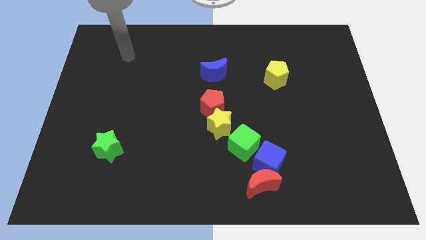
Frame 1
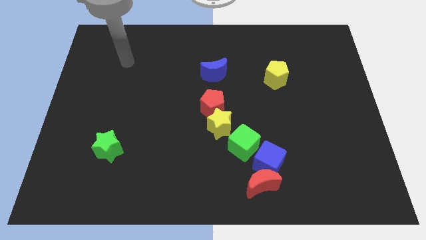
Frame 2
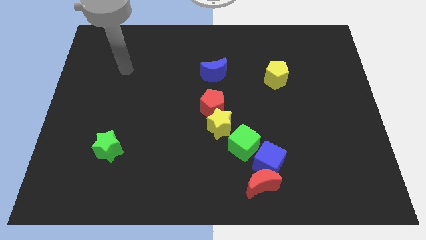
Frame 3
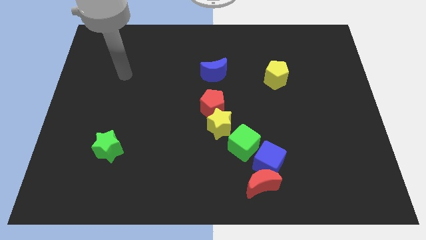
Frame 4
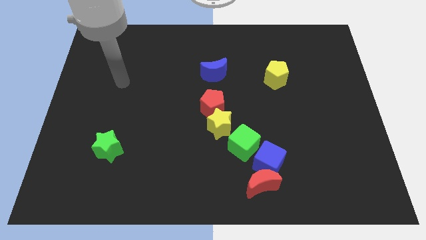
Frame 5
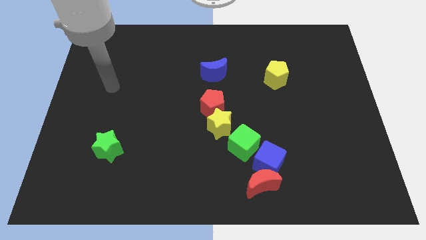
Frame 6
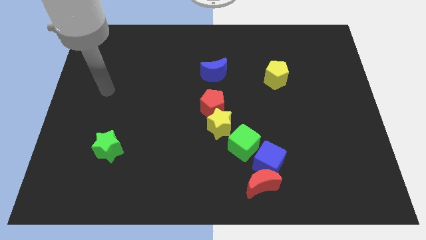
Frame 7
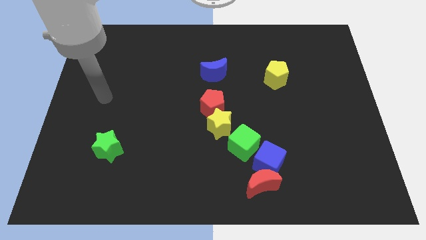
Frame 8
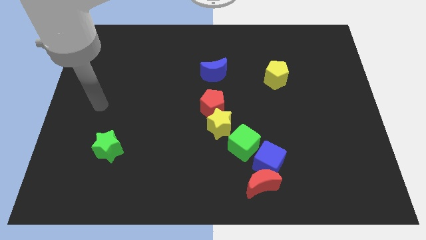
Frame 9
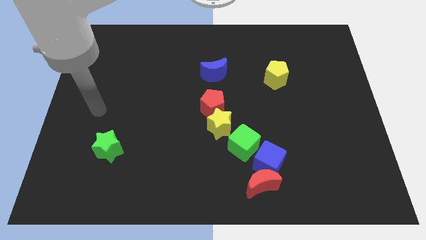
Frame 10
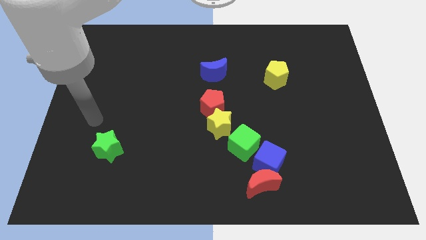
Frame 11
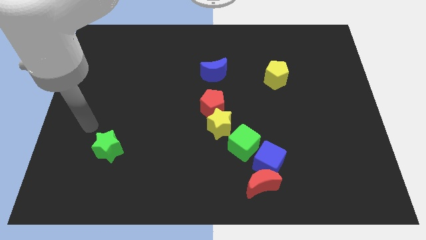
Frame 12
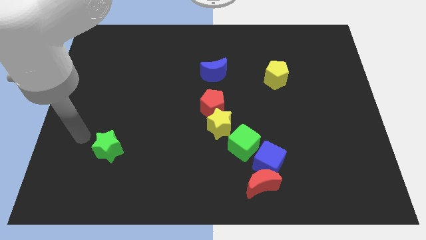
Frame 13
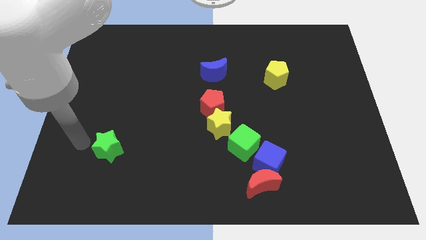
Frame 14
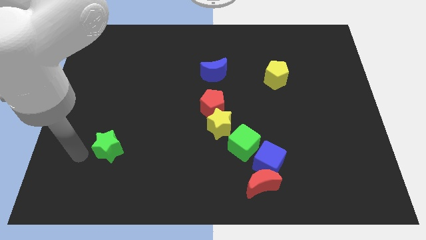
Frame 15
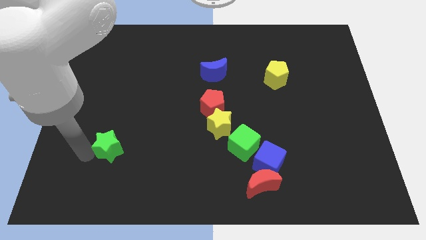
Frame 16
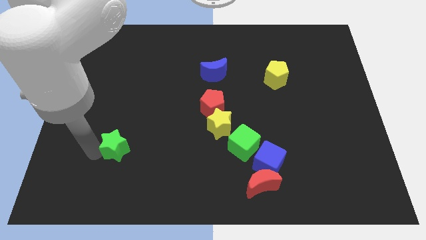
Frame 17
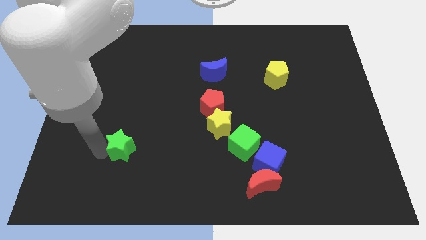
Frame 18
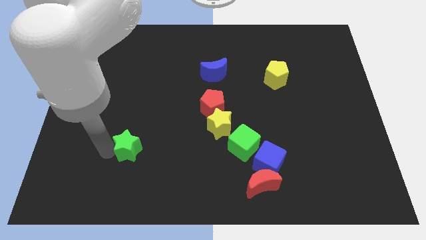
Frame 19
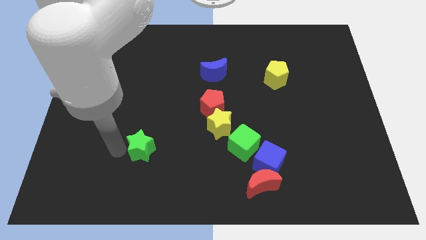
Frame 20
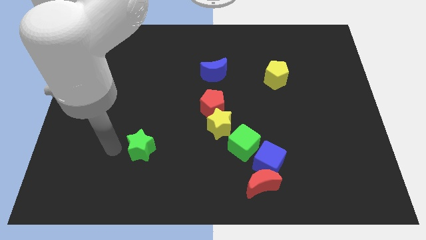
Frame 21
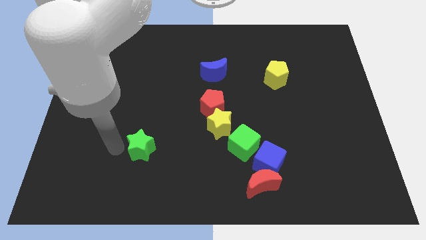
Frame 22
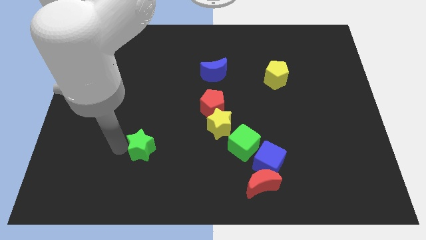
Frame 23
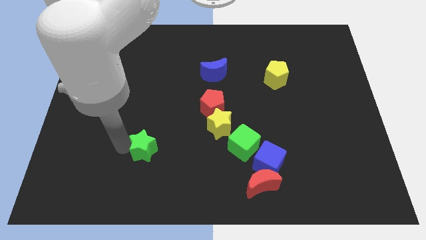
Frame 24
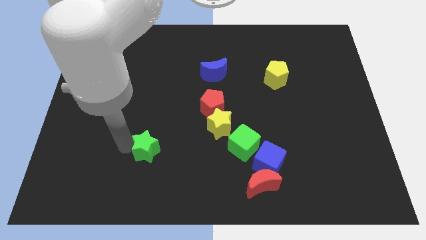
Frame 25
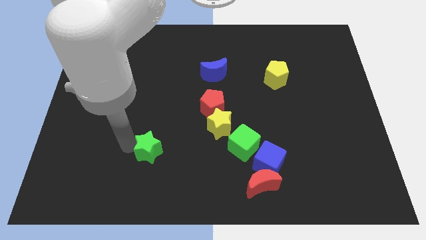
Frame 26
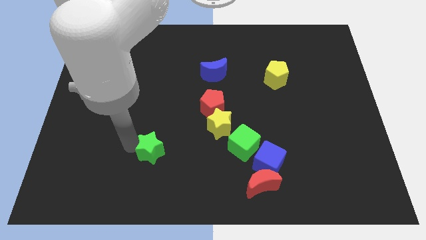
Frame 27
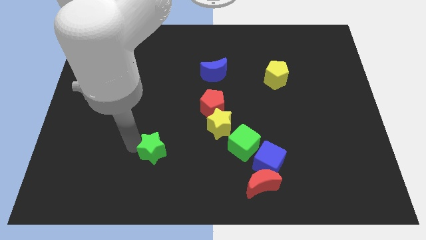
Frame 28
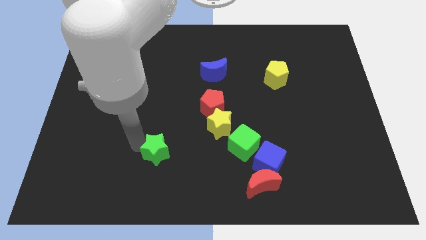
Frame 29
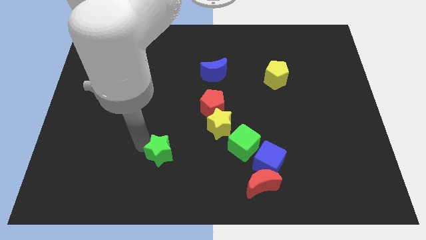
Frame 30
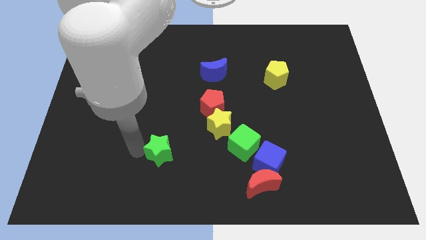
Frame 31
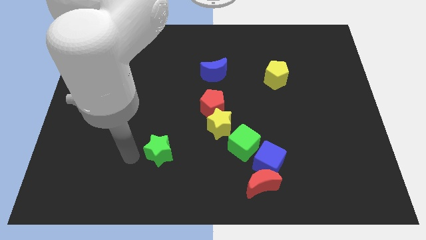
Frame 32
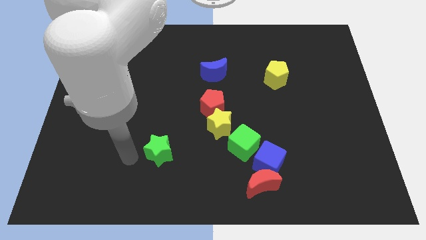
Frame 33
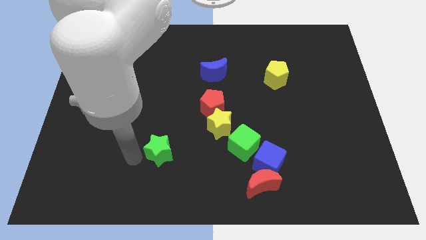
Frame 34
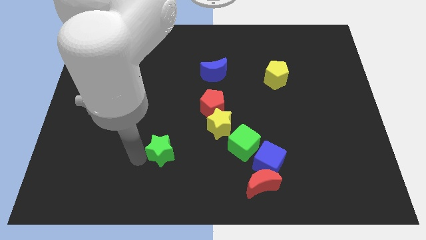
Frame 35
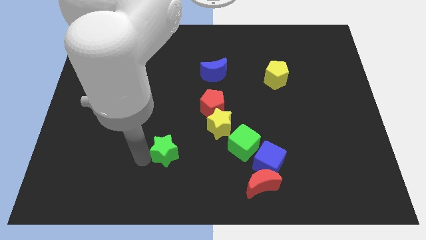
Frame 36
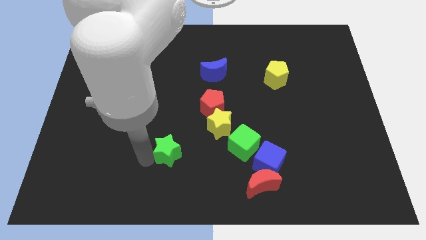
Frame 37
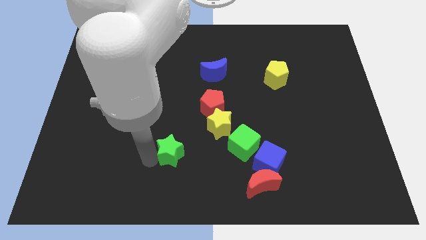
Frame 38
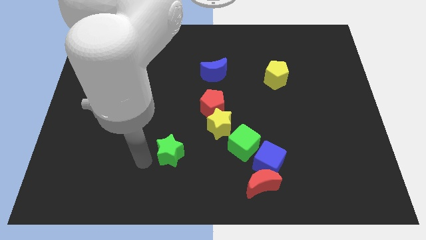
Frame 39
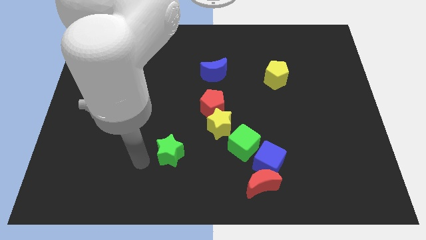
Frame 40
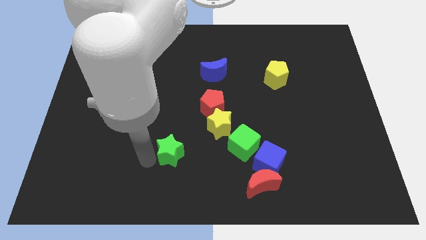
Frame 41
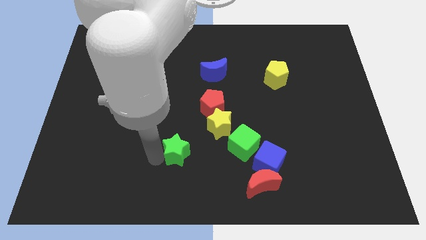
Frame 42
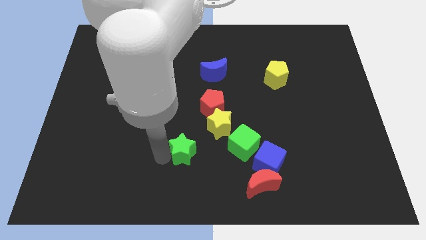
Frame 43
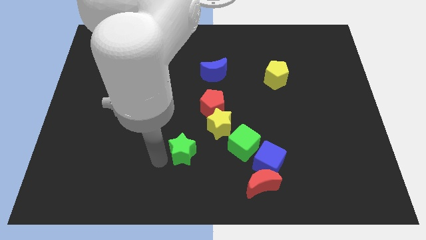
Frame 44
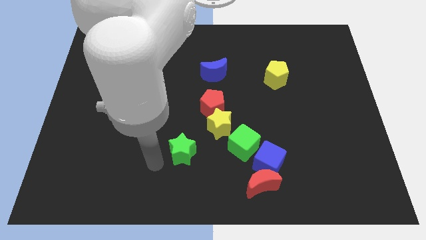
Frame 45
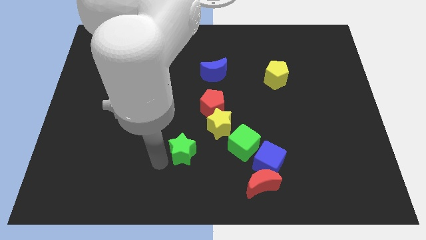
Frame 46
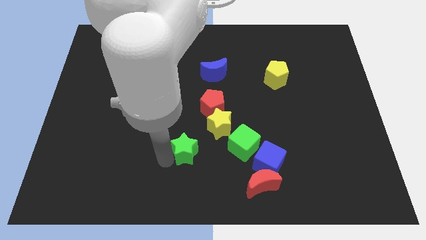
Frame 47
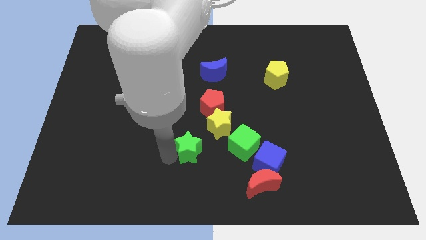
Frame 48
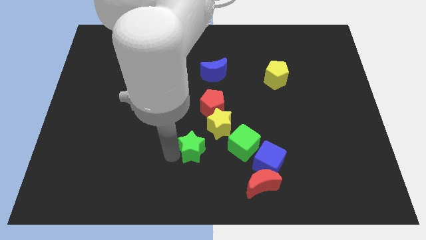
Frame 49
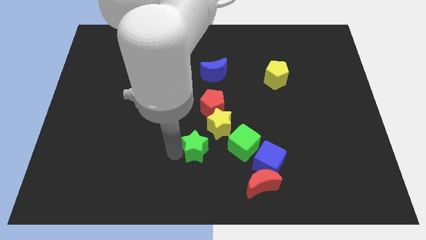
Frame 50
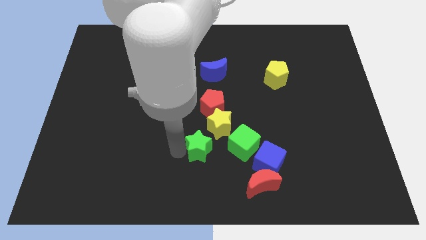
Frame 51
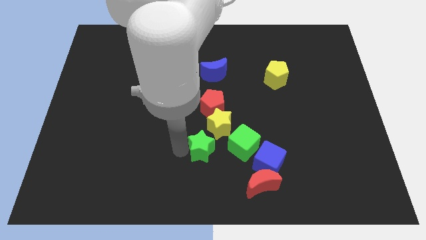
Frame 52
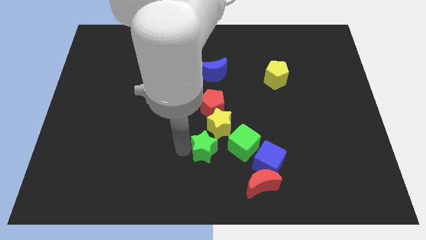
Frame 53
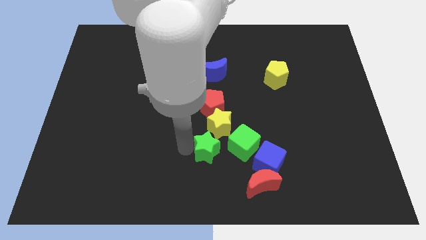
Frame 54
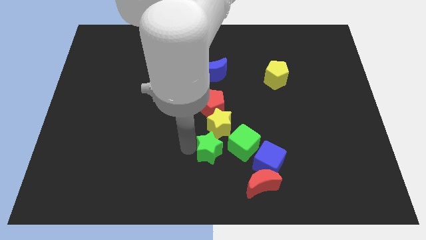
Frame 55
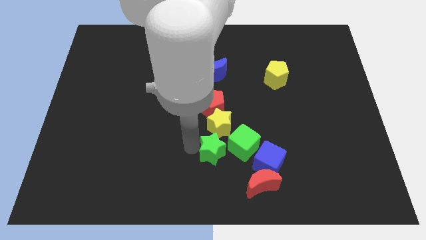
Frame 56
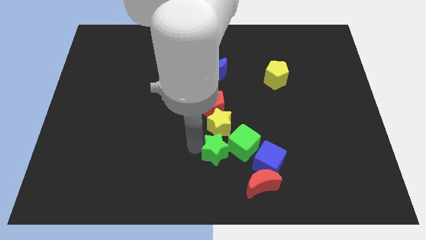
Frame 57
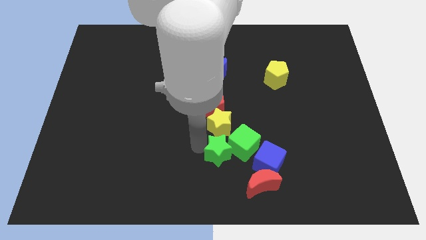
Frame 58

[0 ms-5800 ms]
push the green star to the green cube

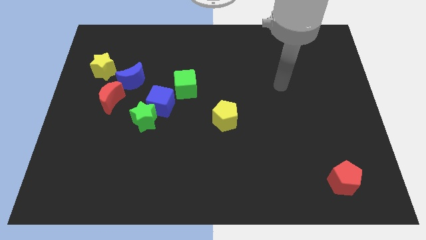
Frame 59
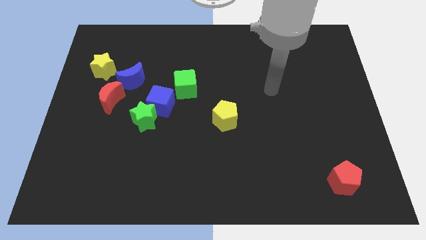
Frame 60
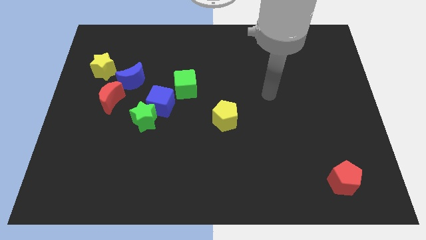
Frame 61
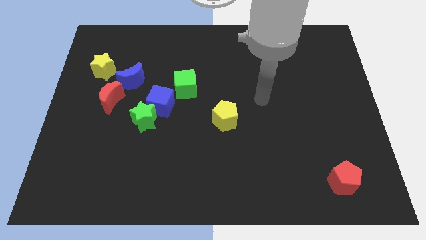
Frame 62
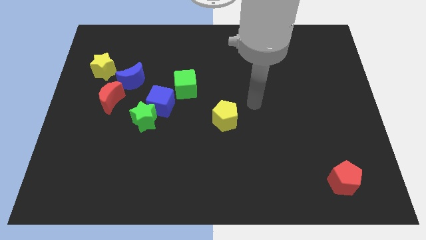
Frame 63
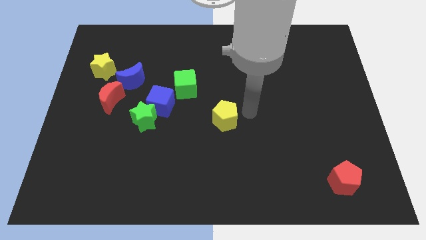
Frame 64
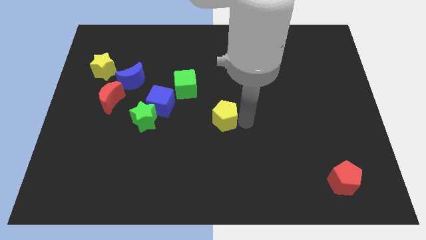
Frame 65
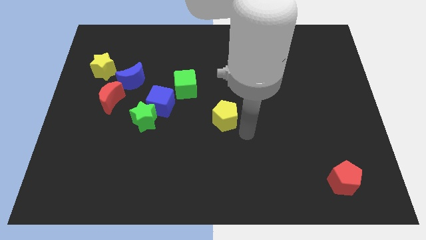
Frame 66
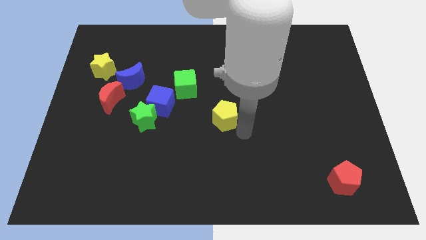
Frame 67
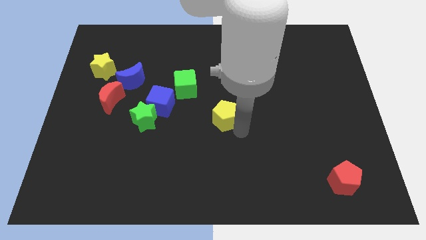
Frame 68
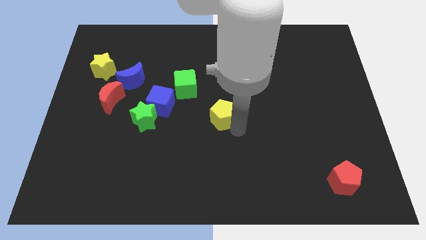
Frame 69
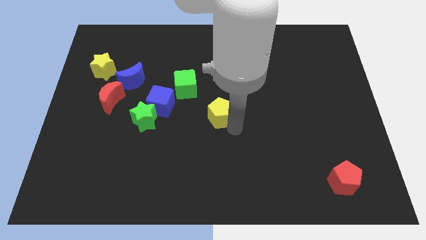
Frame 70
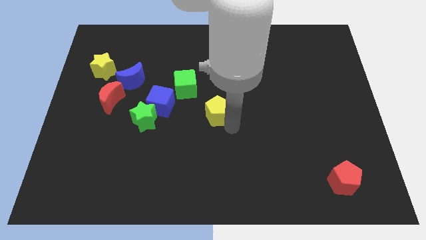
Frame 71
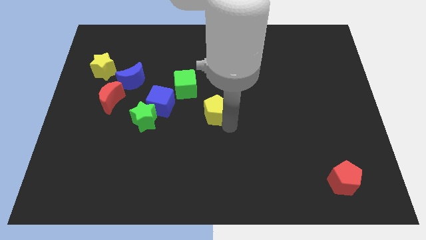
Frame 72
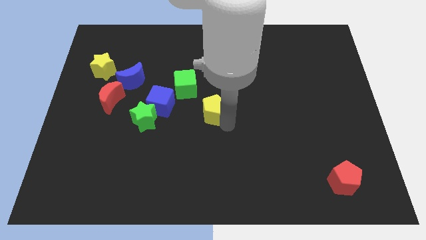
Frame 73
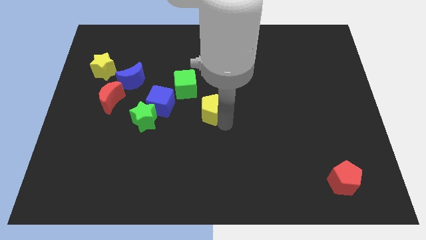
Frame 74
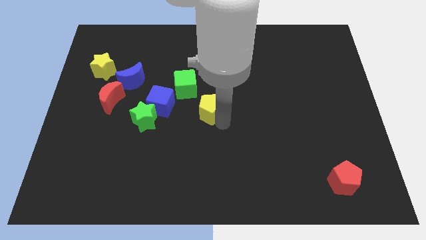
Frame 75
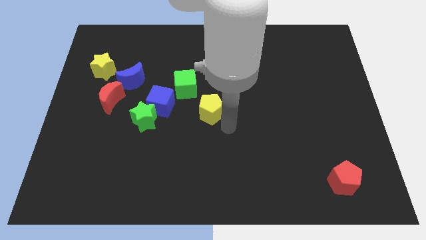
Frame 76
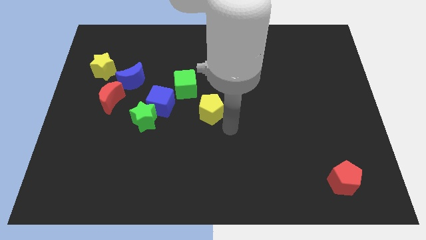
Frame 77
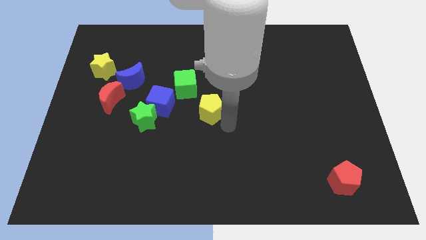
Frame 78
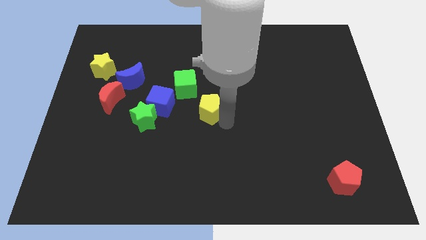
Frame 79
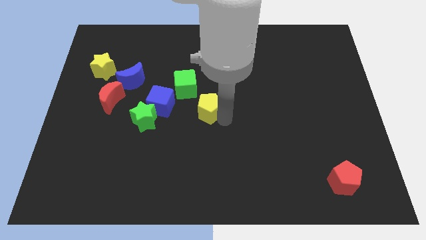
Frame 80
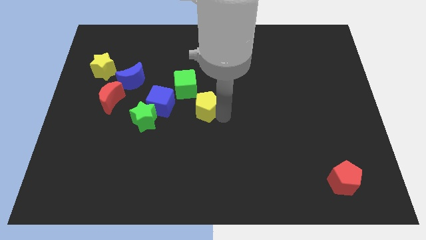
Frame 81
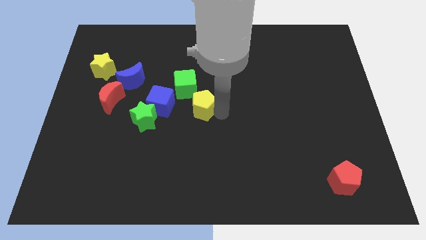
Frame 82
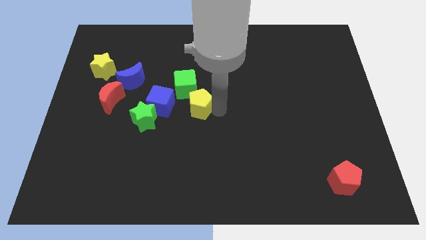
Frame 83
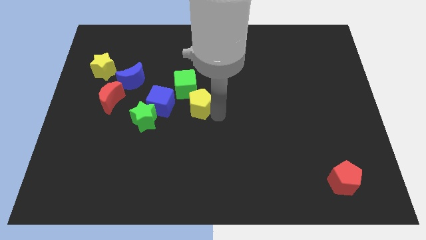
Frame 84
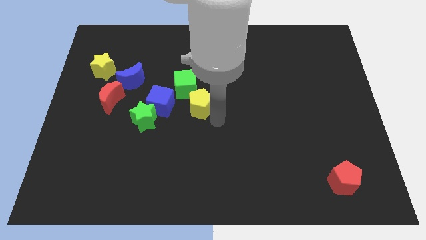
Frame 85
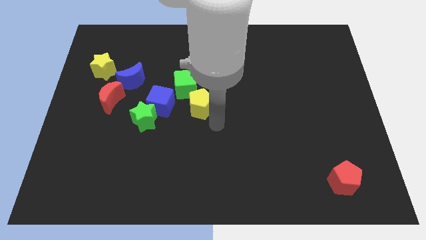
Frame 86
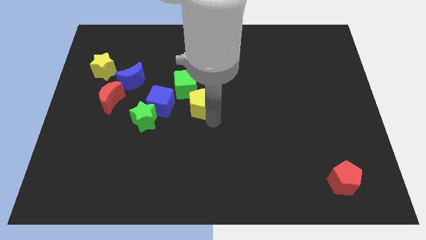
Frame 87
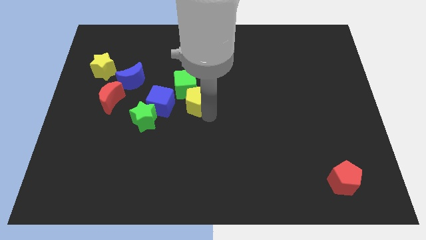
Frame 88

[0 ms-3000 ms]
push the yellow pentagon next to the green cube
